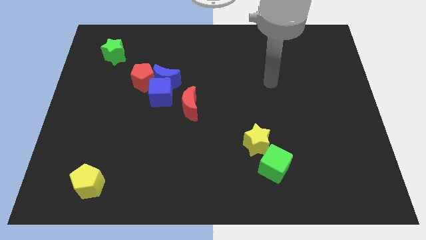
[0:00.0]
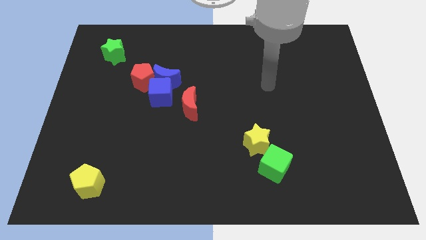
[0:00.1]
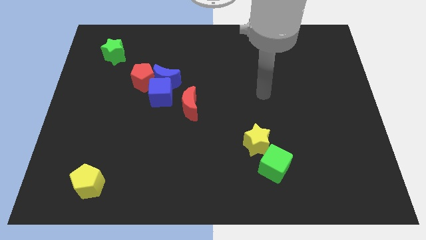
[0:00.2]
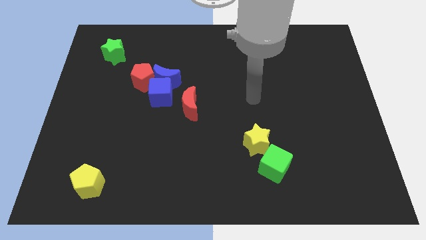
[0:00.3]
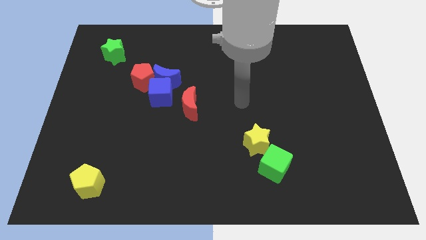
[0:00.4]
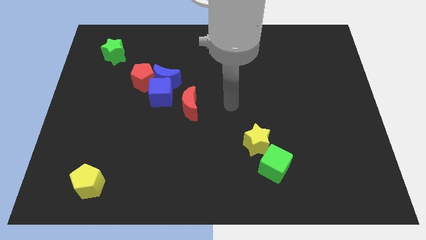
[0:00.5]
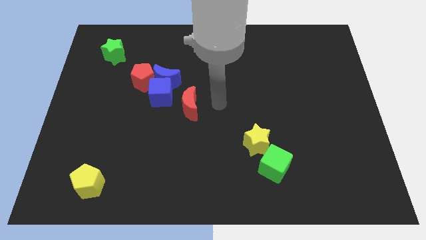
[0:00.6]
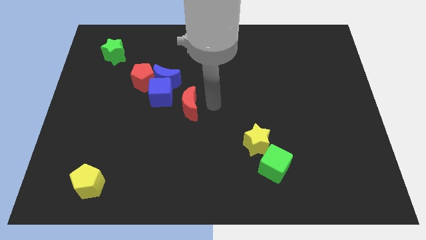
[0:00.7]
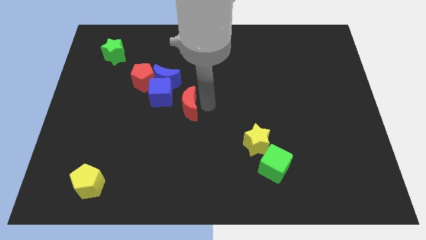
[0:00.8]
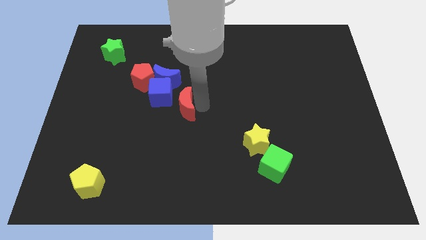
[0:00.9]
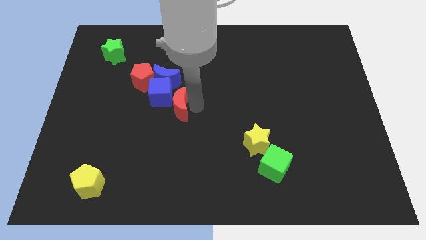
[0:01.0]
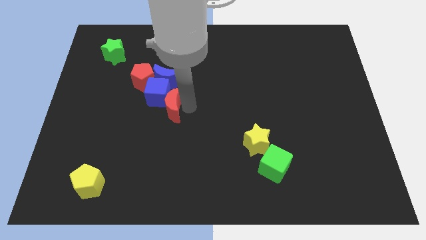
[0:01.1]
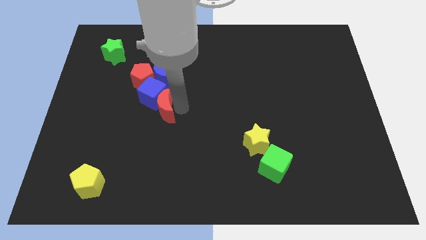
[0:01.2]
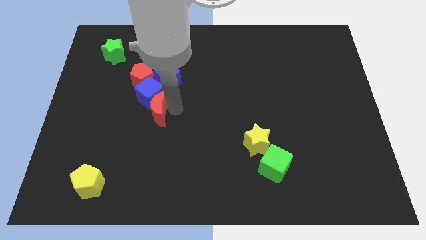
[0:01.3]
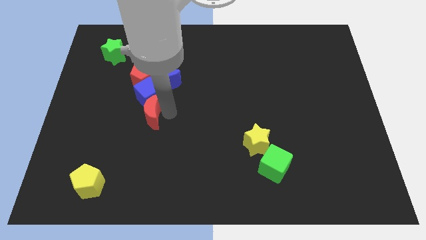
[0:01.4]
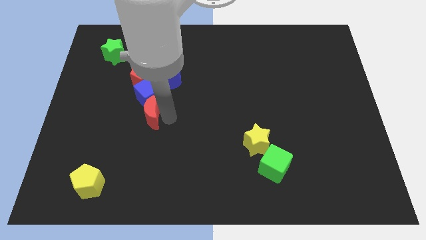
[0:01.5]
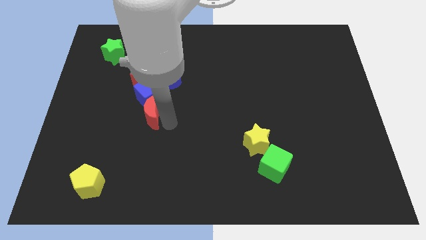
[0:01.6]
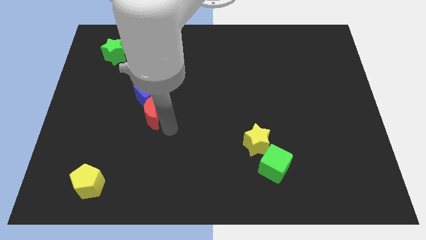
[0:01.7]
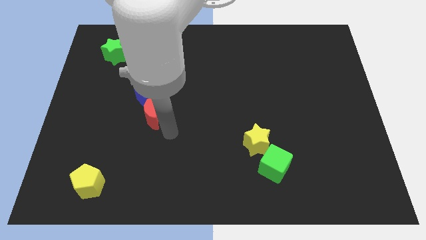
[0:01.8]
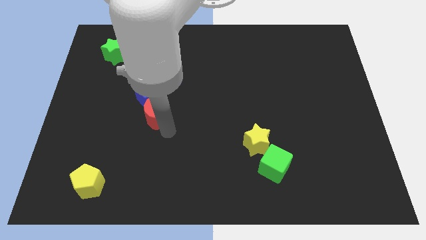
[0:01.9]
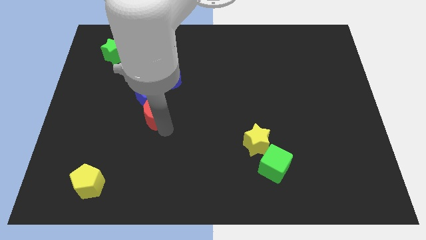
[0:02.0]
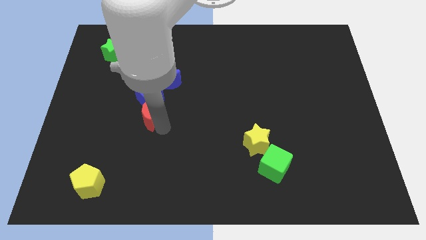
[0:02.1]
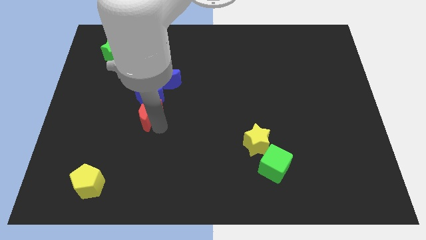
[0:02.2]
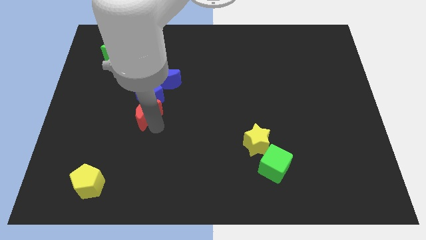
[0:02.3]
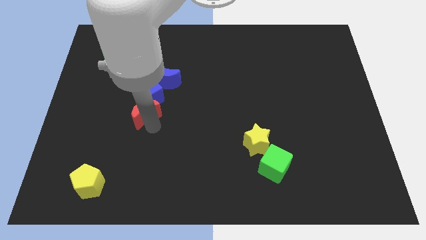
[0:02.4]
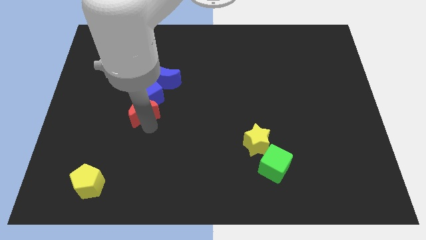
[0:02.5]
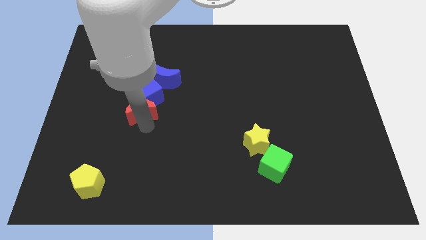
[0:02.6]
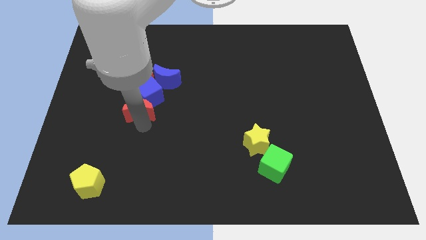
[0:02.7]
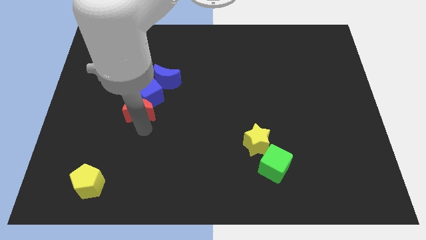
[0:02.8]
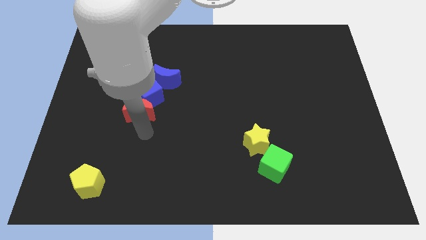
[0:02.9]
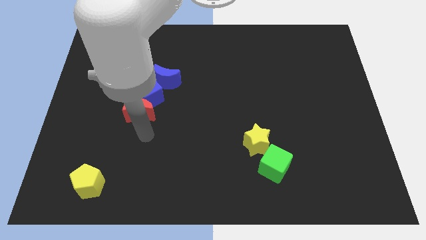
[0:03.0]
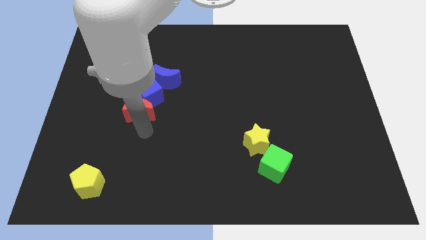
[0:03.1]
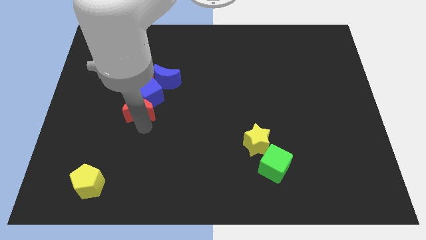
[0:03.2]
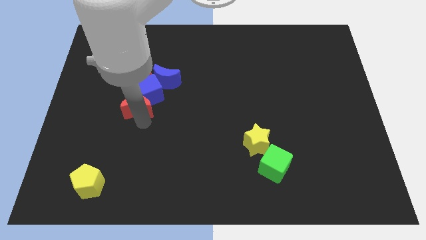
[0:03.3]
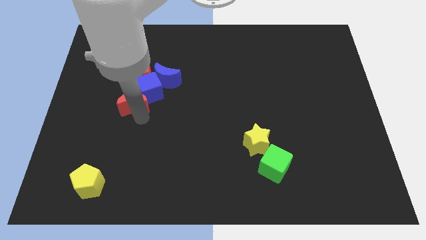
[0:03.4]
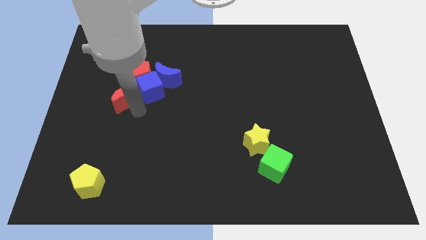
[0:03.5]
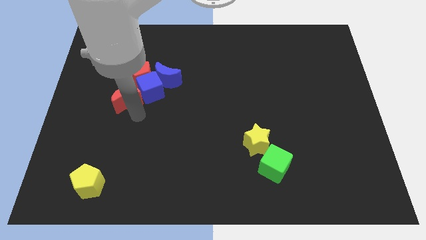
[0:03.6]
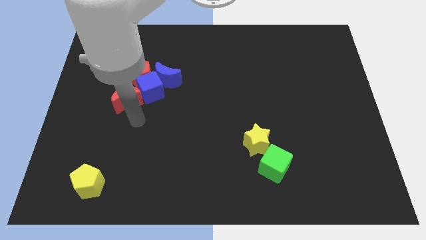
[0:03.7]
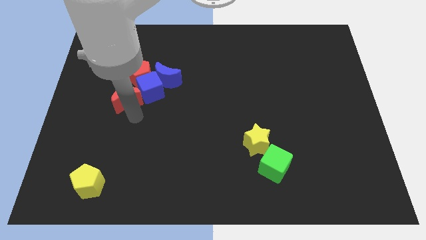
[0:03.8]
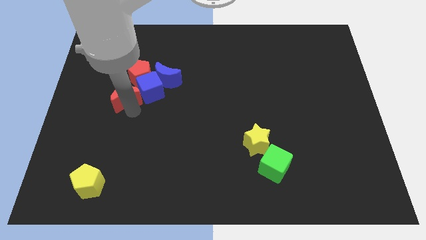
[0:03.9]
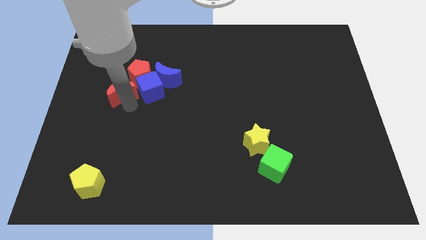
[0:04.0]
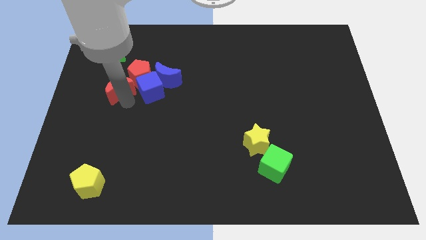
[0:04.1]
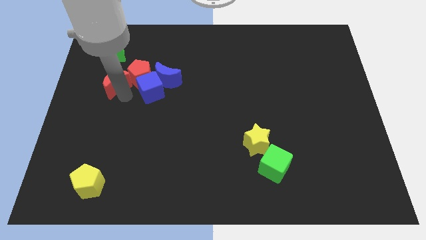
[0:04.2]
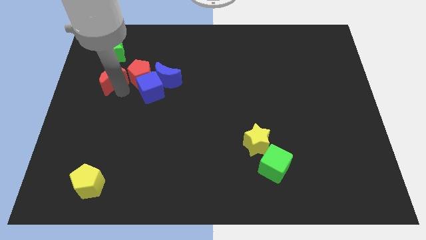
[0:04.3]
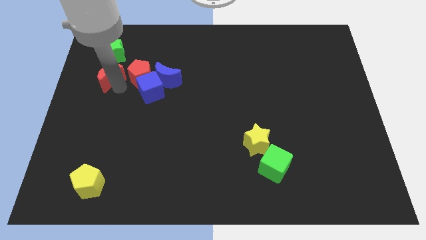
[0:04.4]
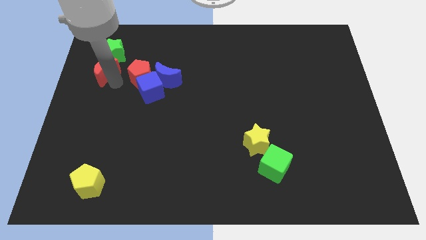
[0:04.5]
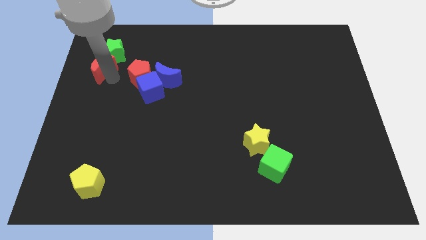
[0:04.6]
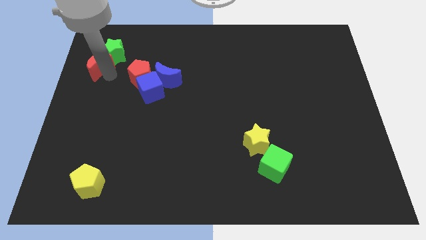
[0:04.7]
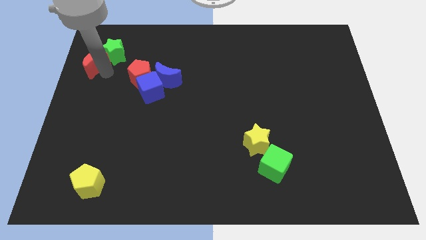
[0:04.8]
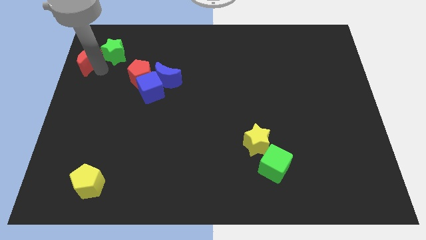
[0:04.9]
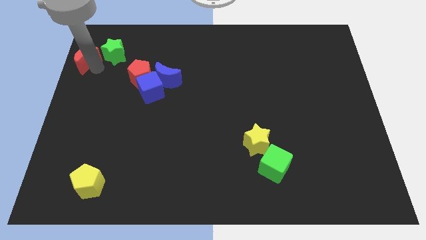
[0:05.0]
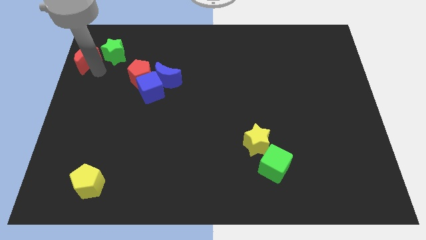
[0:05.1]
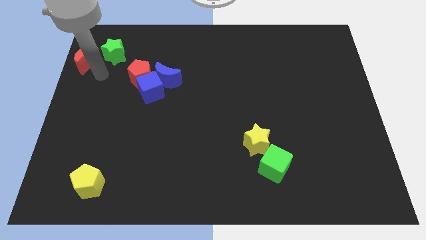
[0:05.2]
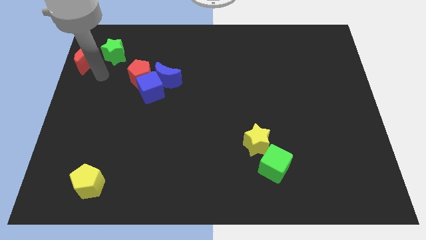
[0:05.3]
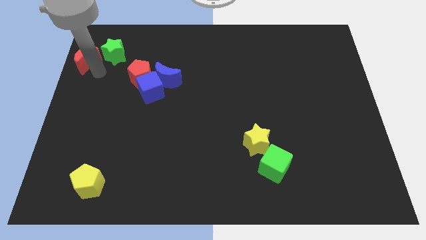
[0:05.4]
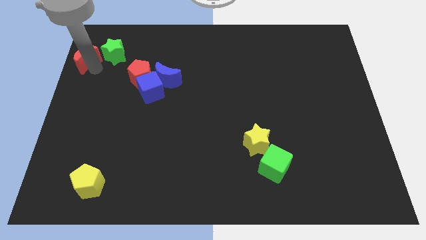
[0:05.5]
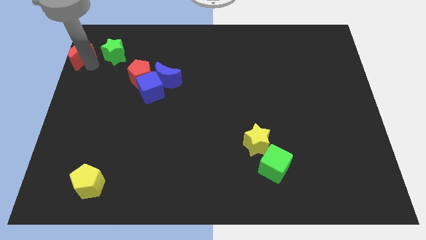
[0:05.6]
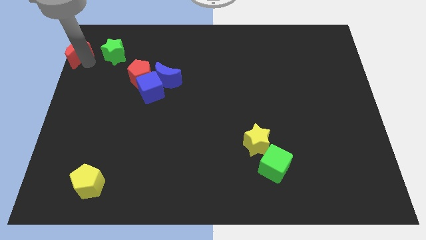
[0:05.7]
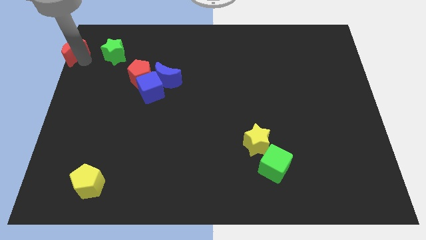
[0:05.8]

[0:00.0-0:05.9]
move the red moon to the top left corner

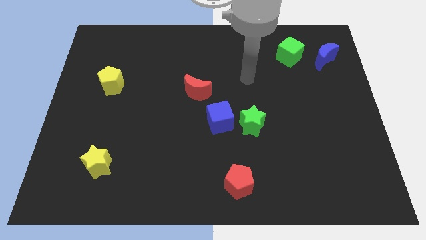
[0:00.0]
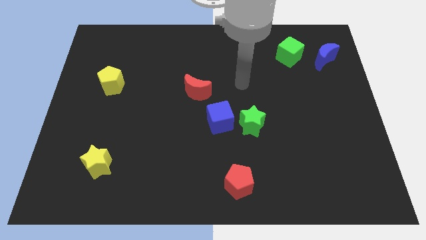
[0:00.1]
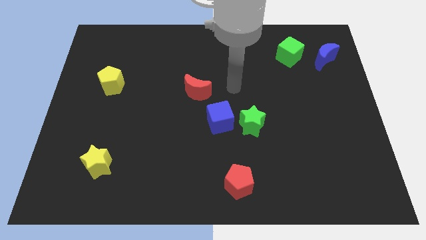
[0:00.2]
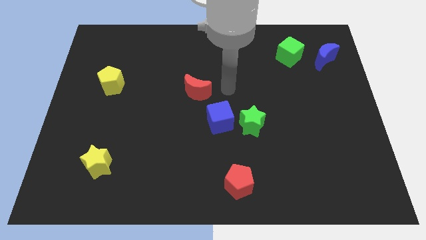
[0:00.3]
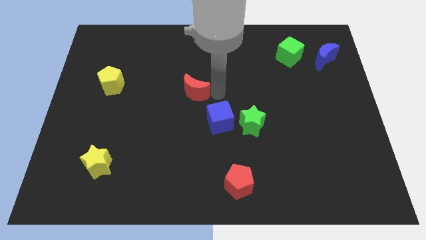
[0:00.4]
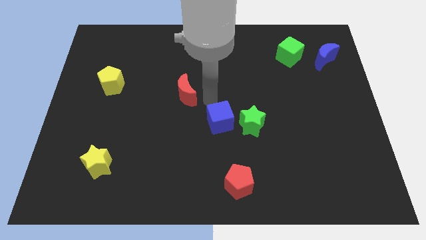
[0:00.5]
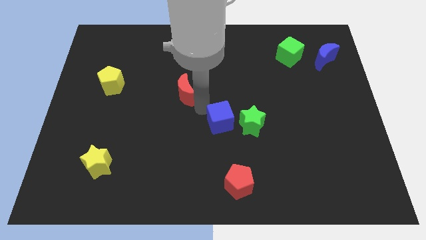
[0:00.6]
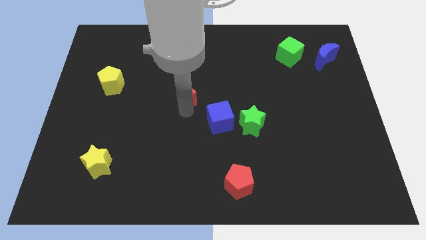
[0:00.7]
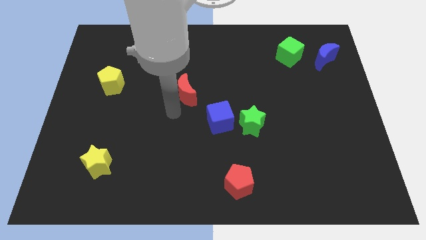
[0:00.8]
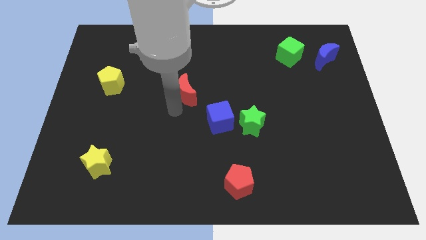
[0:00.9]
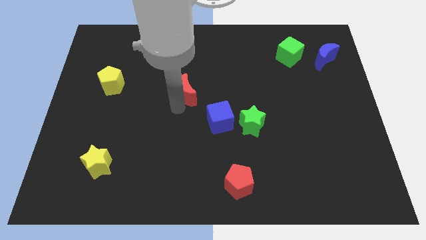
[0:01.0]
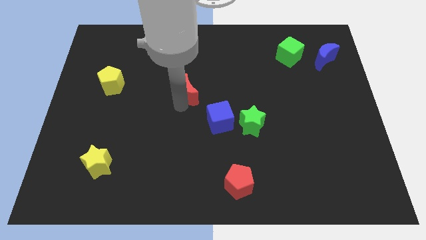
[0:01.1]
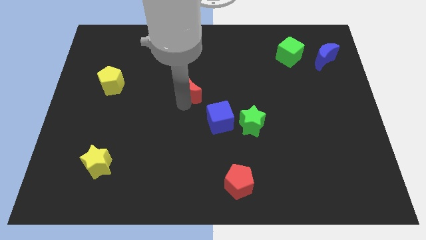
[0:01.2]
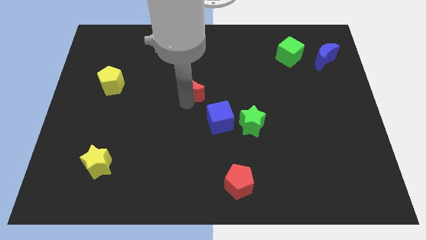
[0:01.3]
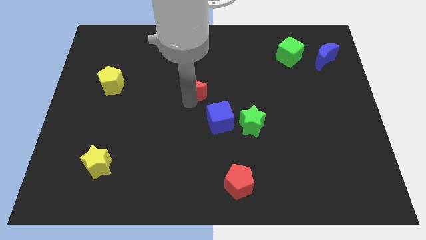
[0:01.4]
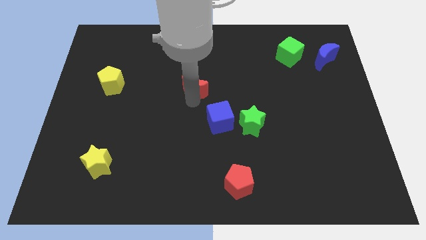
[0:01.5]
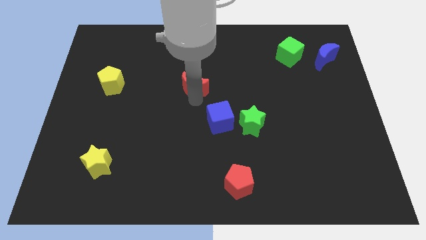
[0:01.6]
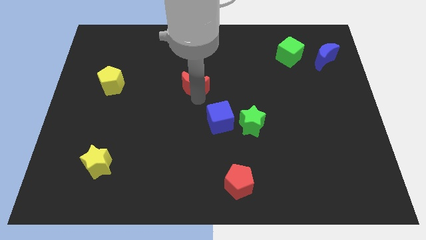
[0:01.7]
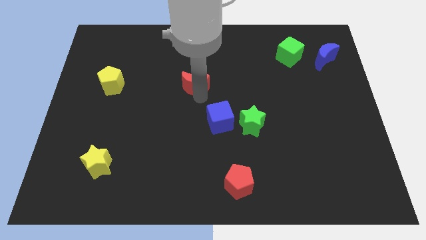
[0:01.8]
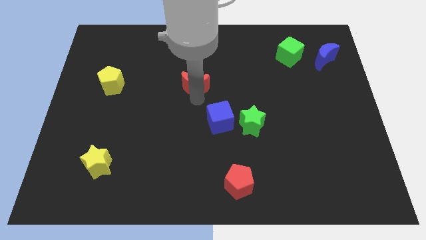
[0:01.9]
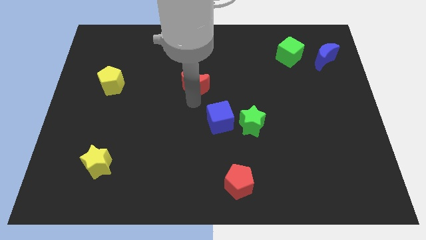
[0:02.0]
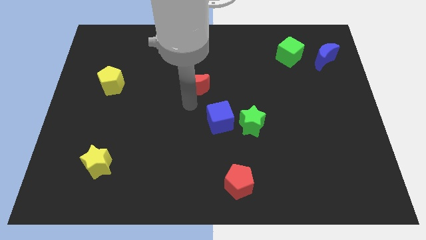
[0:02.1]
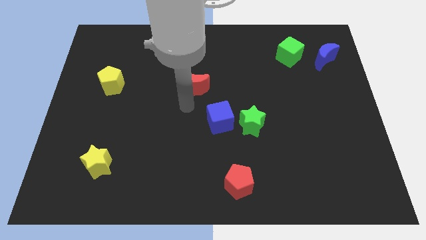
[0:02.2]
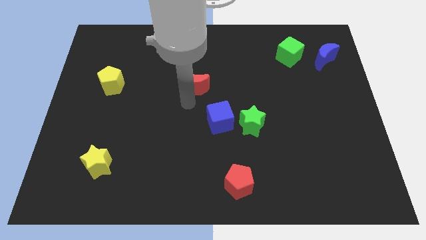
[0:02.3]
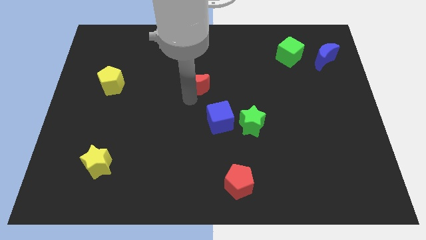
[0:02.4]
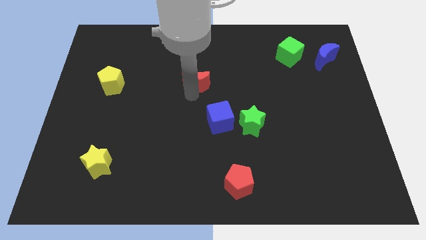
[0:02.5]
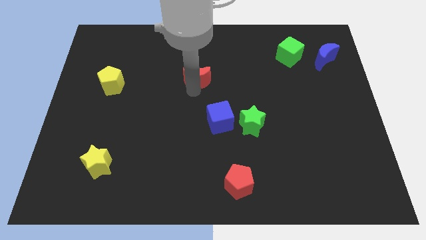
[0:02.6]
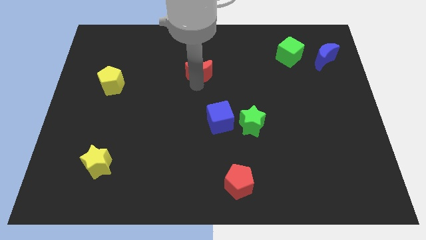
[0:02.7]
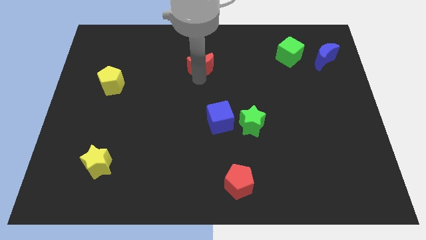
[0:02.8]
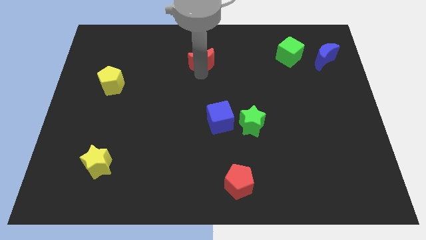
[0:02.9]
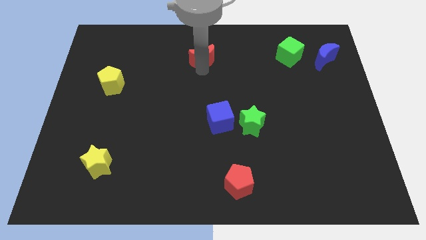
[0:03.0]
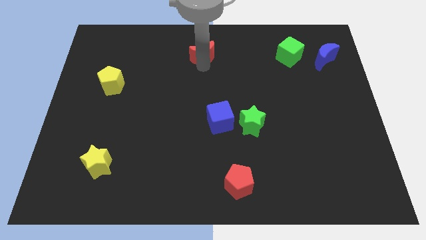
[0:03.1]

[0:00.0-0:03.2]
slide the red moon to the top
